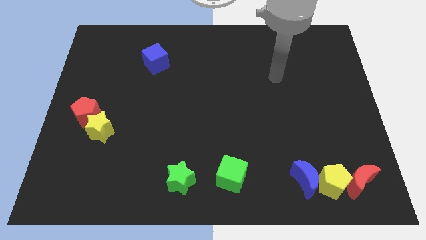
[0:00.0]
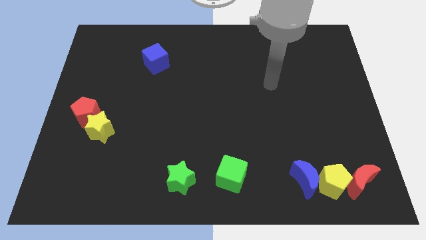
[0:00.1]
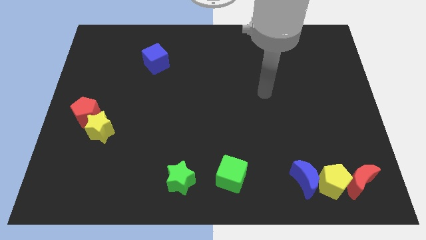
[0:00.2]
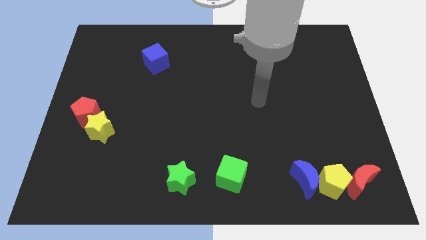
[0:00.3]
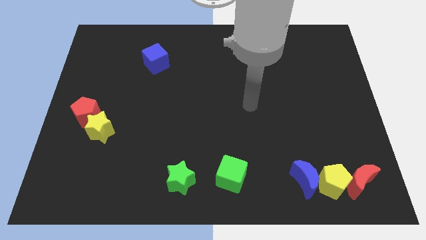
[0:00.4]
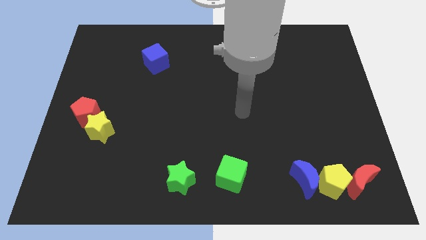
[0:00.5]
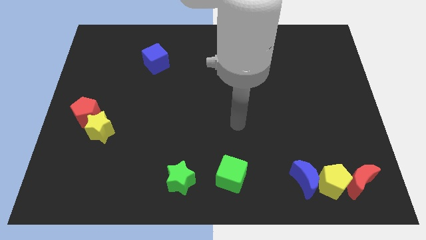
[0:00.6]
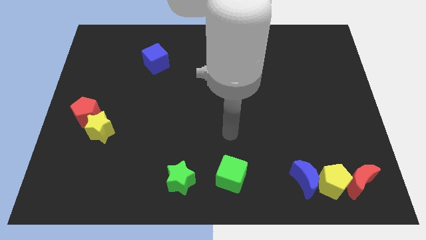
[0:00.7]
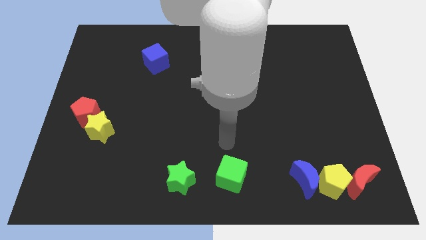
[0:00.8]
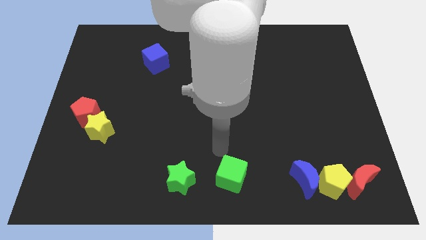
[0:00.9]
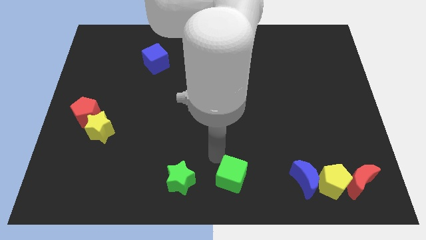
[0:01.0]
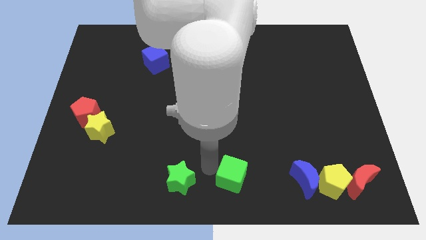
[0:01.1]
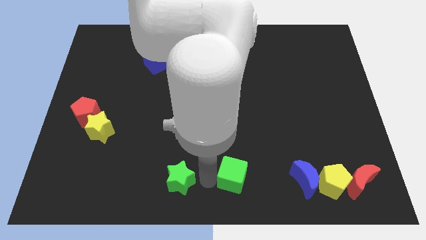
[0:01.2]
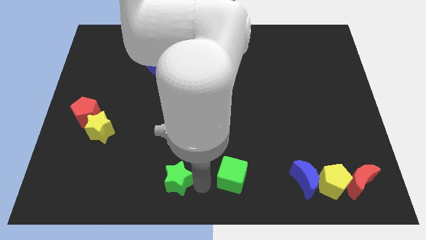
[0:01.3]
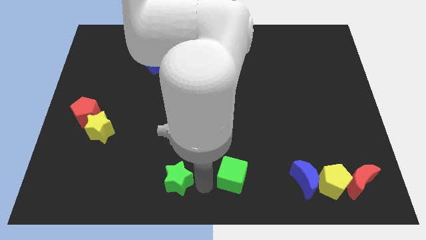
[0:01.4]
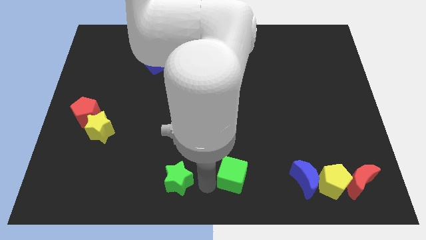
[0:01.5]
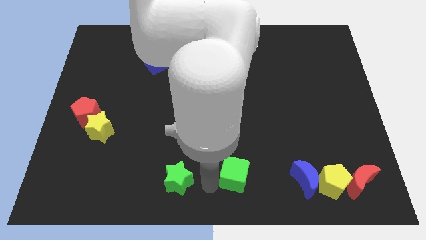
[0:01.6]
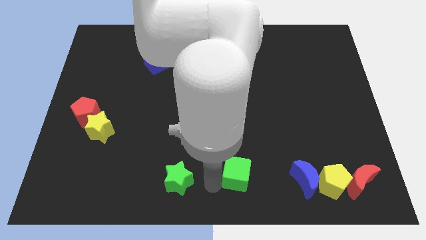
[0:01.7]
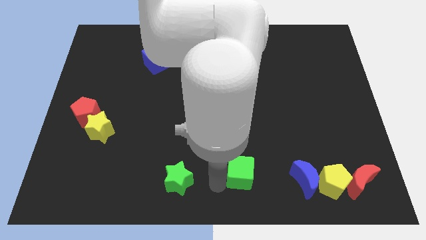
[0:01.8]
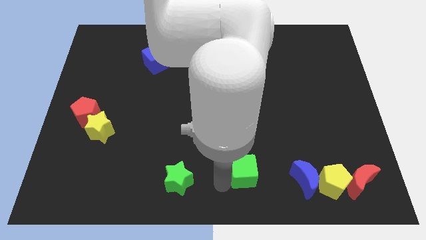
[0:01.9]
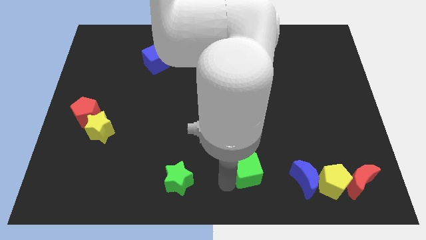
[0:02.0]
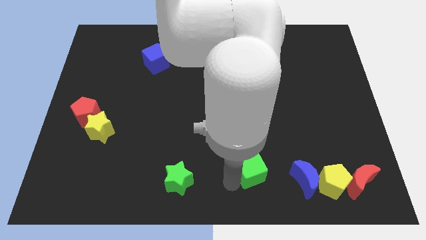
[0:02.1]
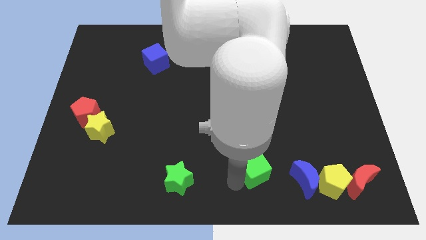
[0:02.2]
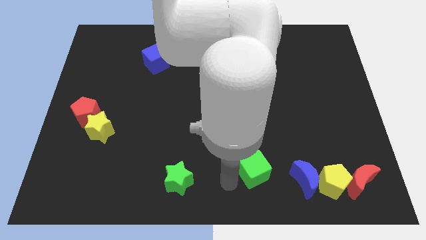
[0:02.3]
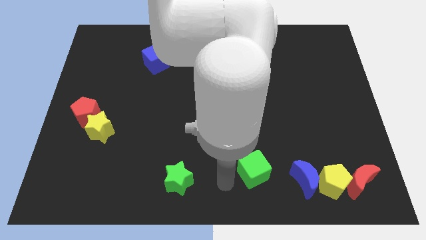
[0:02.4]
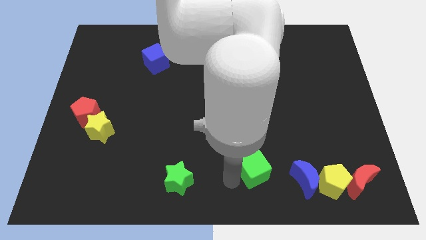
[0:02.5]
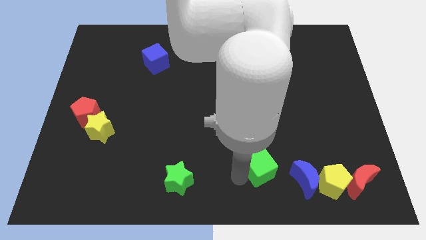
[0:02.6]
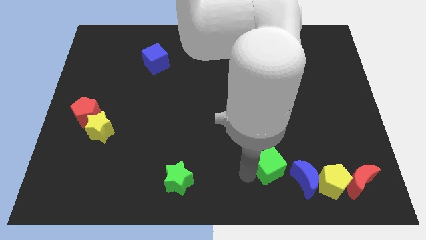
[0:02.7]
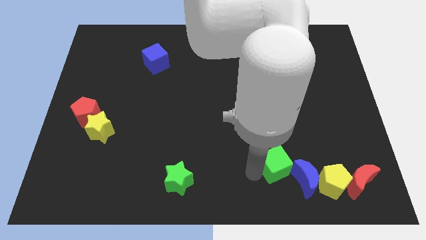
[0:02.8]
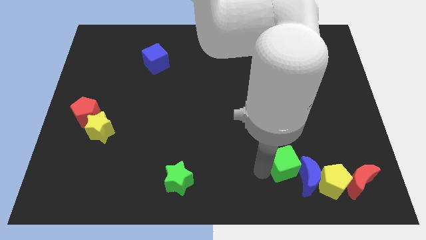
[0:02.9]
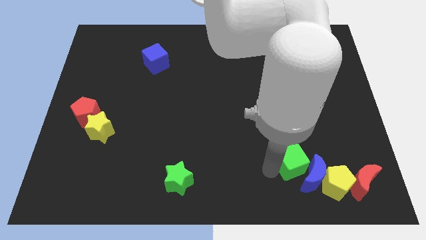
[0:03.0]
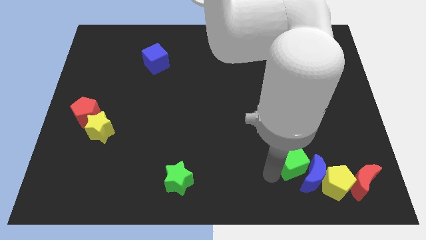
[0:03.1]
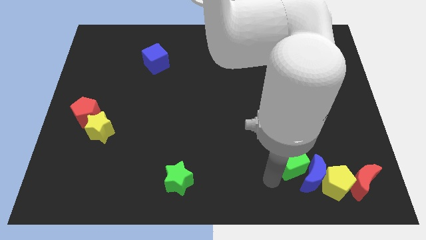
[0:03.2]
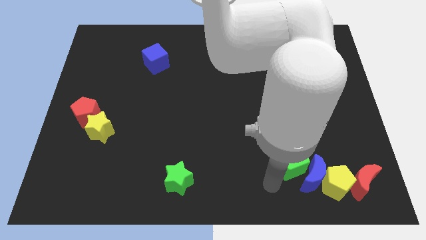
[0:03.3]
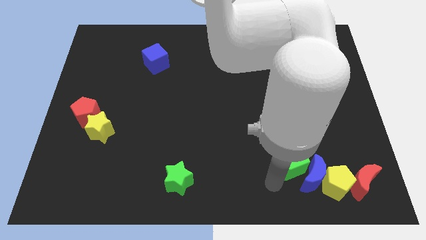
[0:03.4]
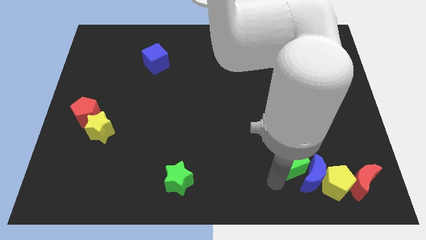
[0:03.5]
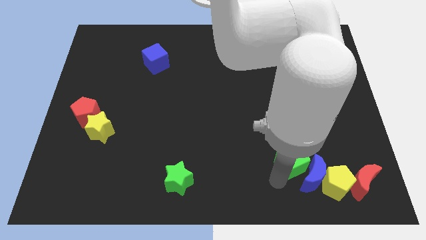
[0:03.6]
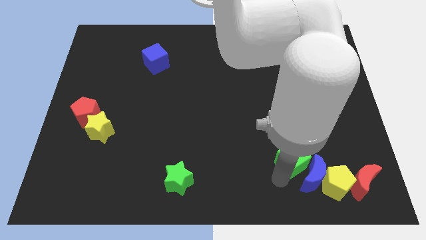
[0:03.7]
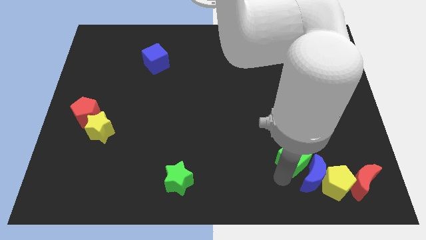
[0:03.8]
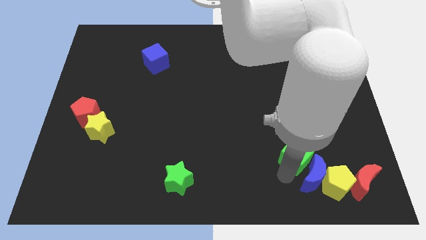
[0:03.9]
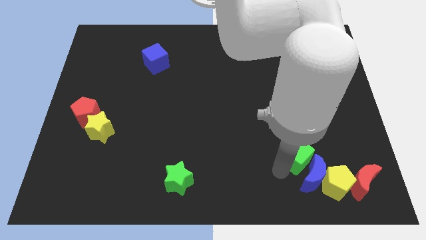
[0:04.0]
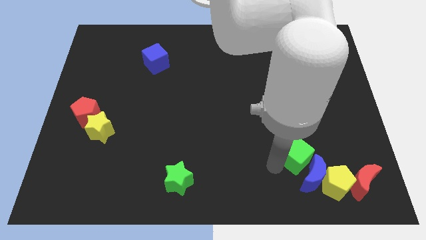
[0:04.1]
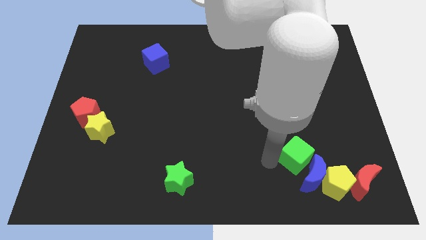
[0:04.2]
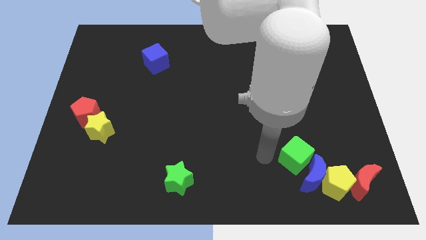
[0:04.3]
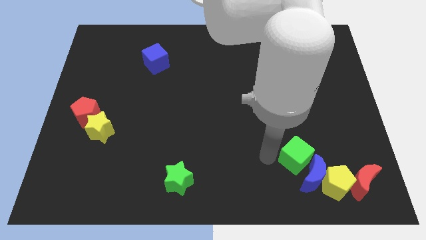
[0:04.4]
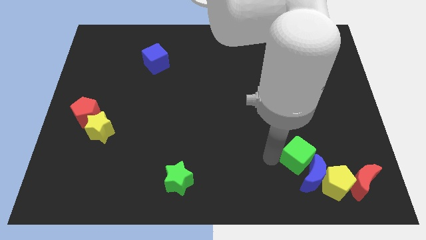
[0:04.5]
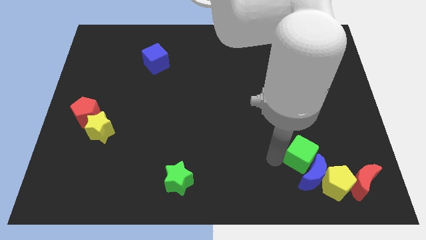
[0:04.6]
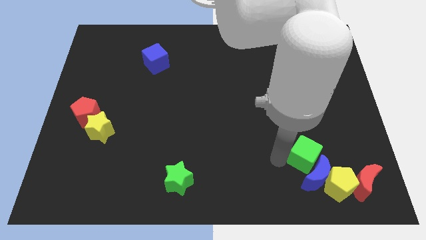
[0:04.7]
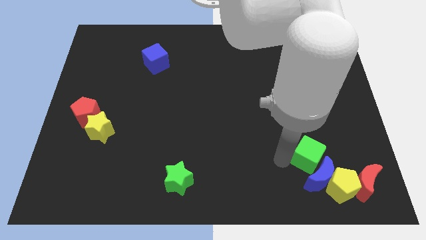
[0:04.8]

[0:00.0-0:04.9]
put the green cube to the top left of the red moon

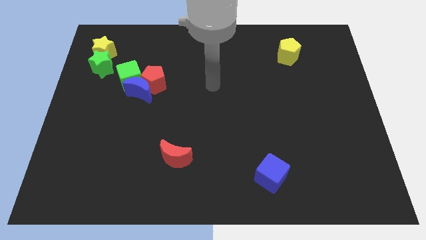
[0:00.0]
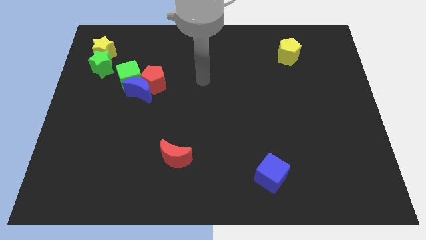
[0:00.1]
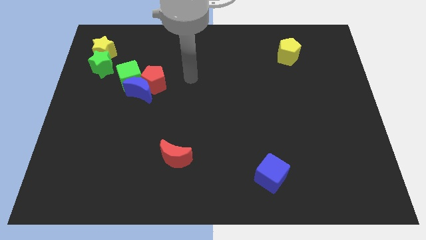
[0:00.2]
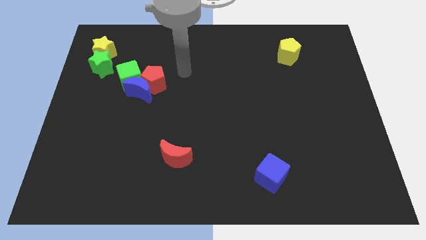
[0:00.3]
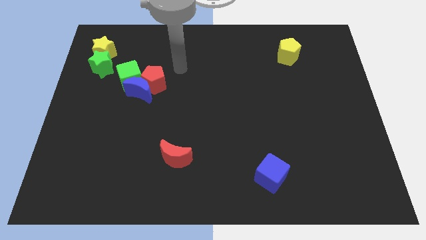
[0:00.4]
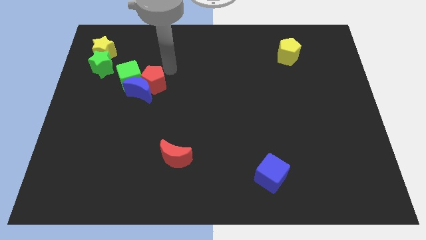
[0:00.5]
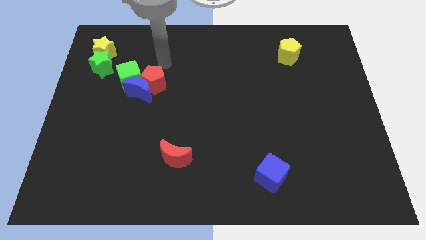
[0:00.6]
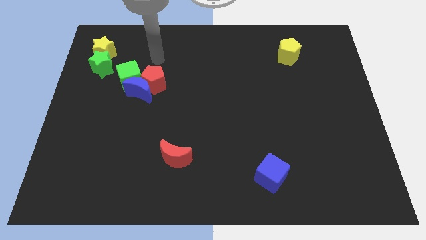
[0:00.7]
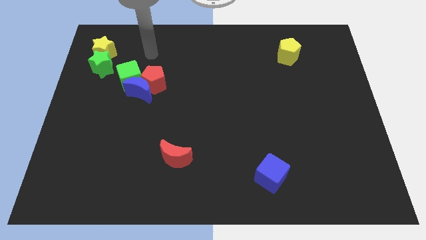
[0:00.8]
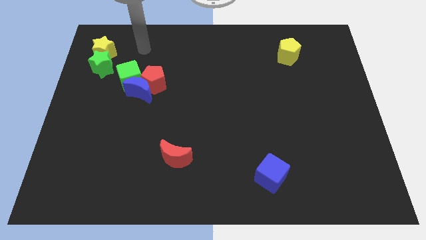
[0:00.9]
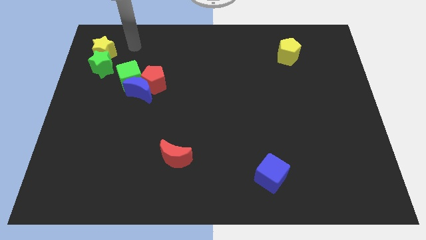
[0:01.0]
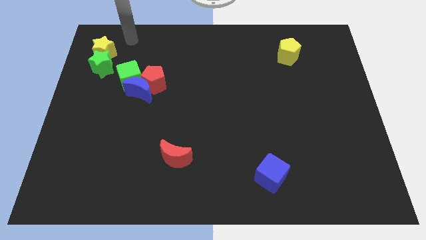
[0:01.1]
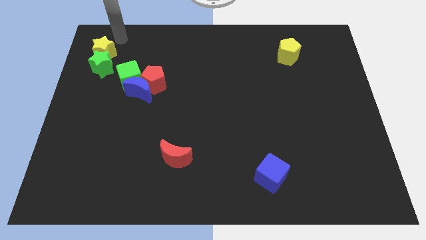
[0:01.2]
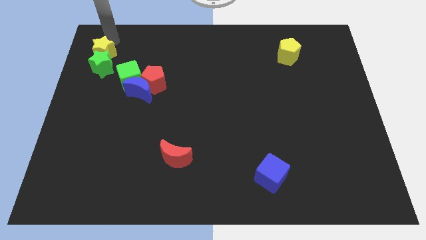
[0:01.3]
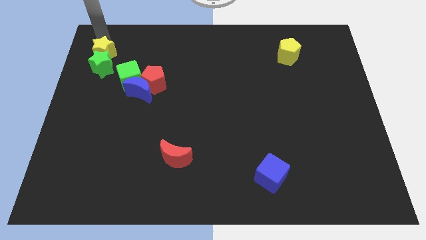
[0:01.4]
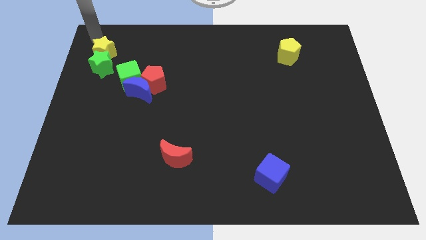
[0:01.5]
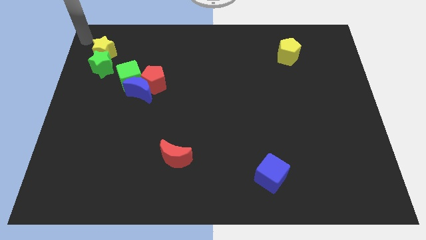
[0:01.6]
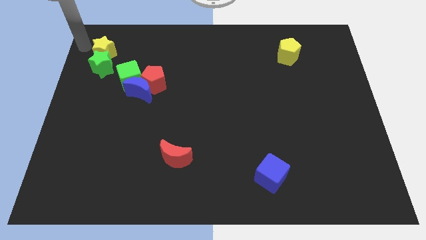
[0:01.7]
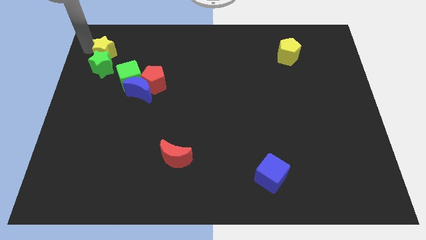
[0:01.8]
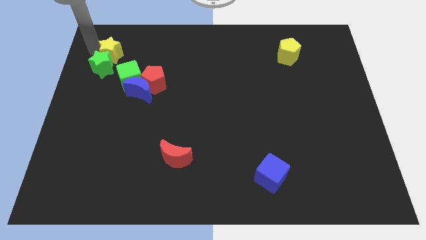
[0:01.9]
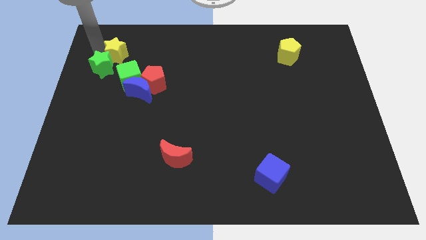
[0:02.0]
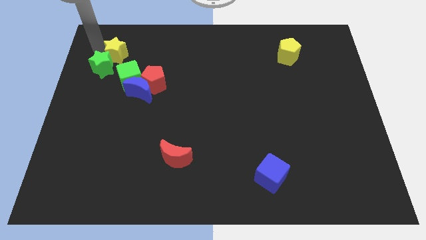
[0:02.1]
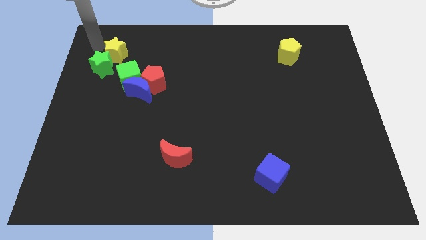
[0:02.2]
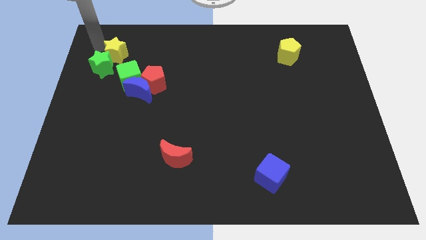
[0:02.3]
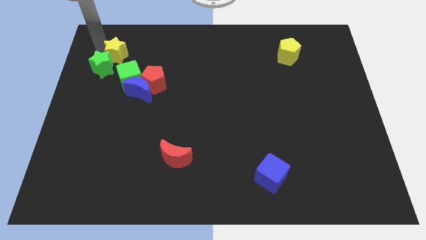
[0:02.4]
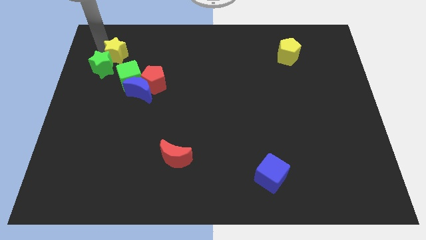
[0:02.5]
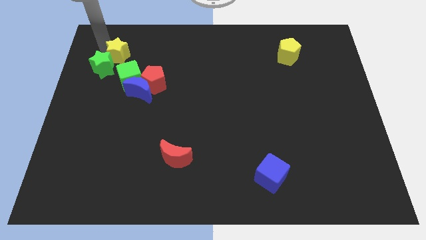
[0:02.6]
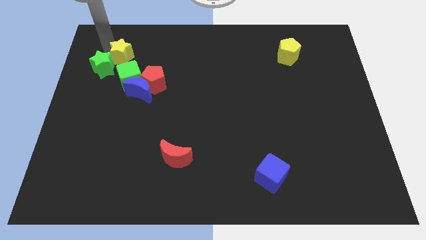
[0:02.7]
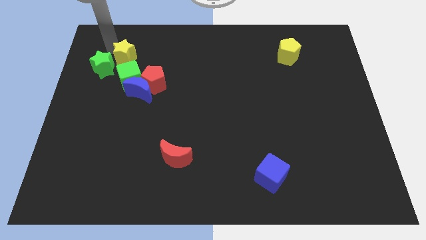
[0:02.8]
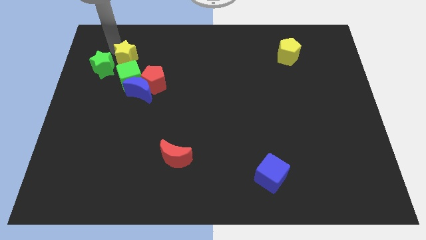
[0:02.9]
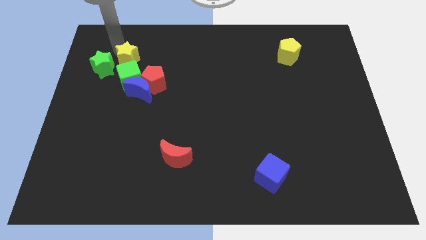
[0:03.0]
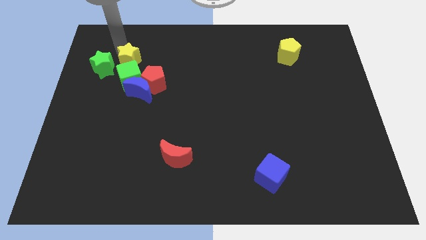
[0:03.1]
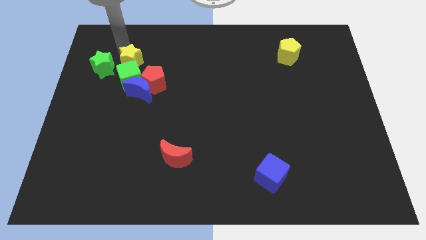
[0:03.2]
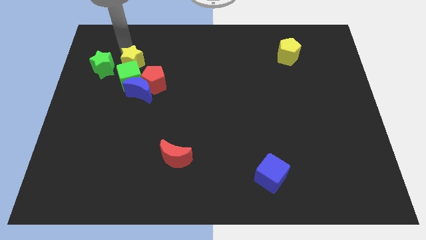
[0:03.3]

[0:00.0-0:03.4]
push the yellow star to the top right side of the green cube
